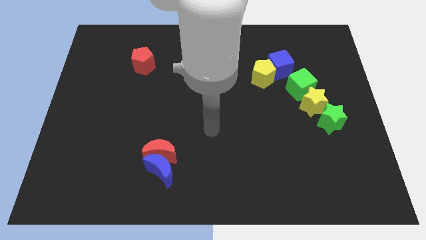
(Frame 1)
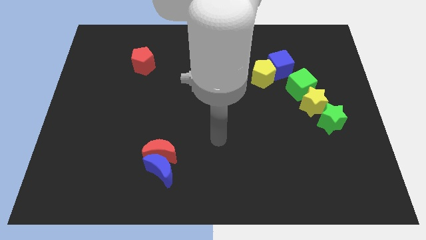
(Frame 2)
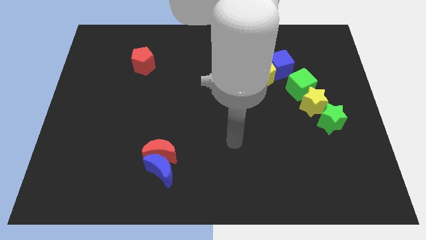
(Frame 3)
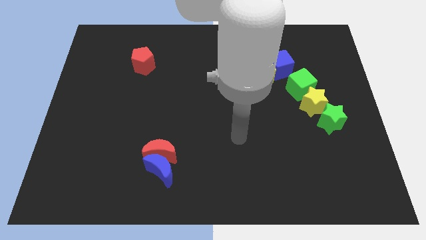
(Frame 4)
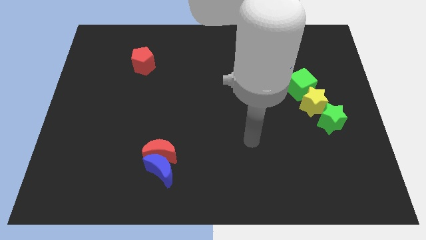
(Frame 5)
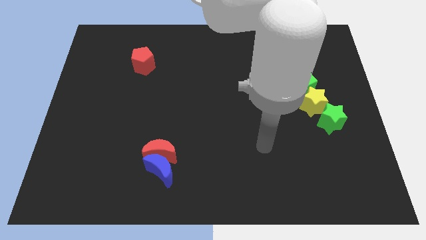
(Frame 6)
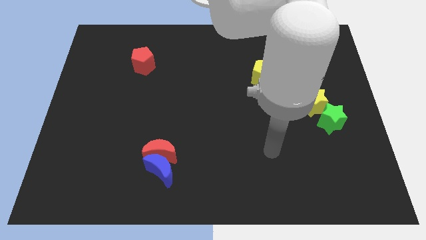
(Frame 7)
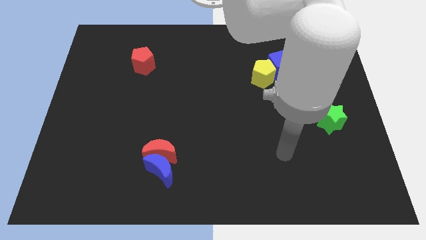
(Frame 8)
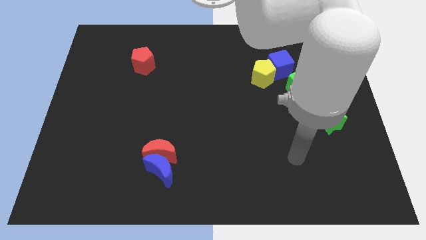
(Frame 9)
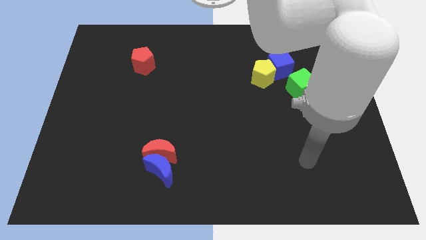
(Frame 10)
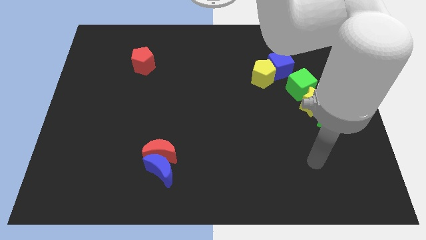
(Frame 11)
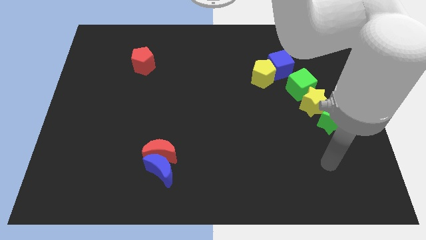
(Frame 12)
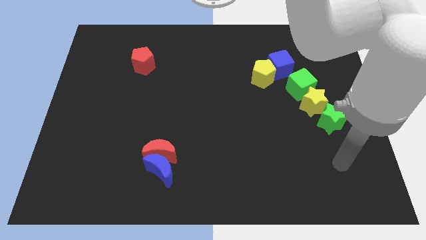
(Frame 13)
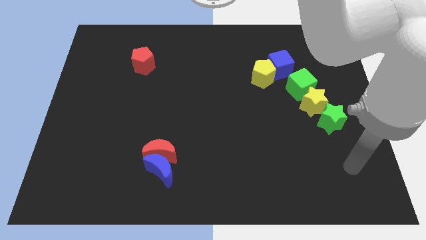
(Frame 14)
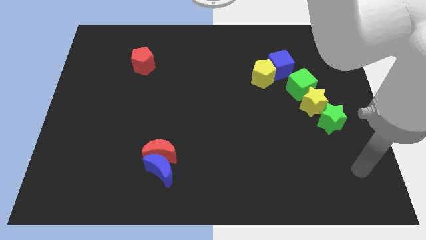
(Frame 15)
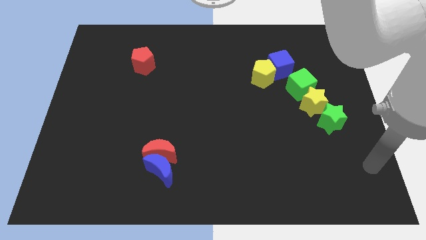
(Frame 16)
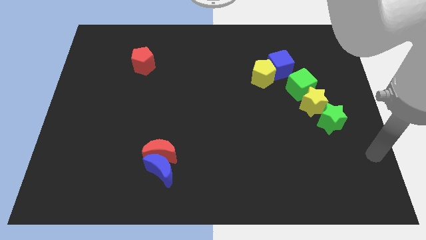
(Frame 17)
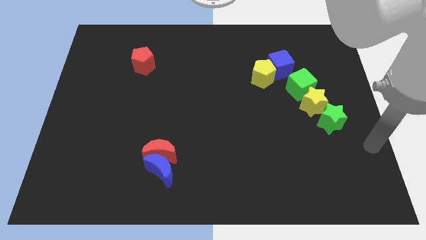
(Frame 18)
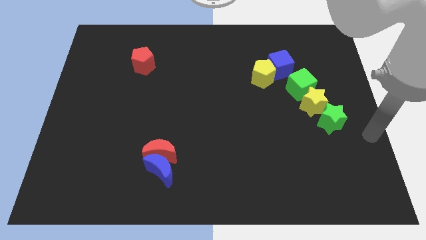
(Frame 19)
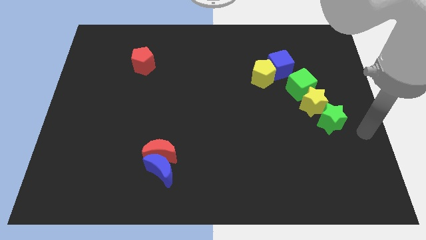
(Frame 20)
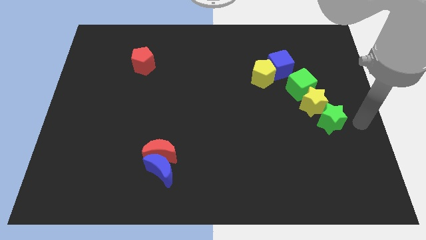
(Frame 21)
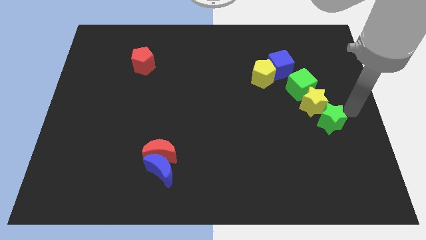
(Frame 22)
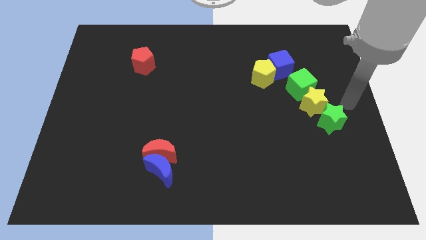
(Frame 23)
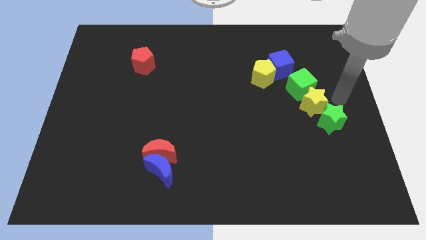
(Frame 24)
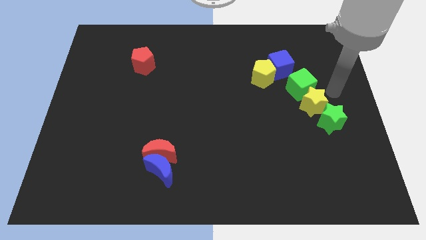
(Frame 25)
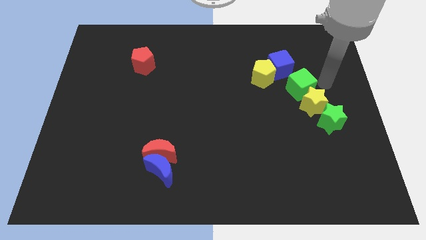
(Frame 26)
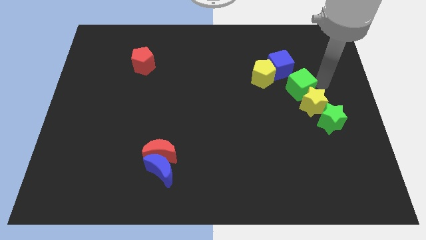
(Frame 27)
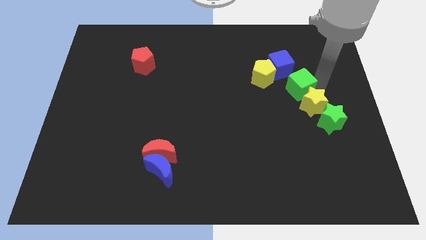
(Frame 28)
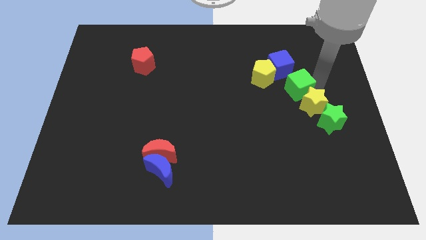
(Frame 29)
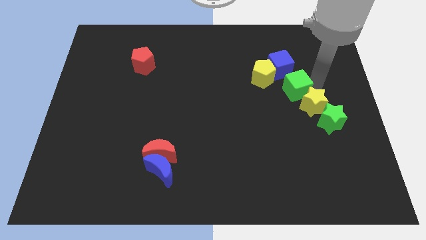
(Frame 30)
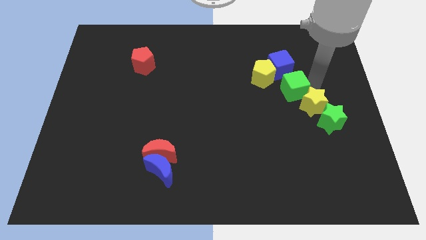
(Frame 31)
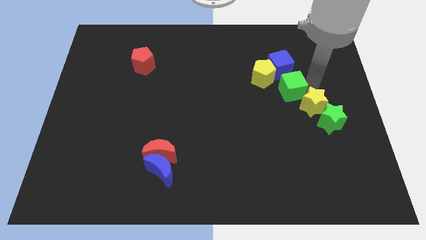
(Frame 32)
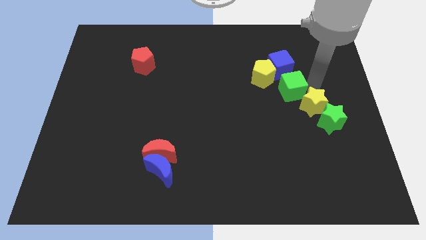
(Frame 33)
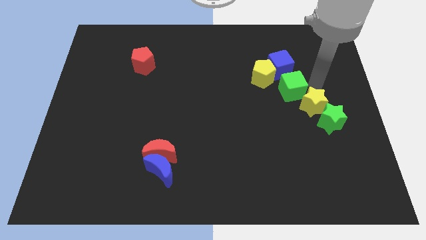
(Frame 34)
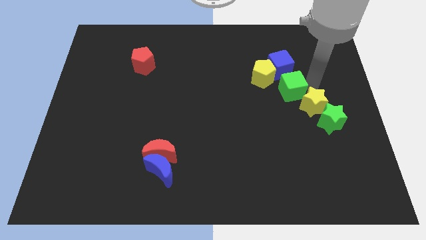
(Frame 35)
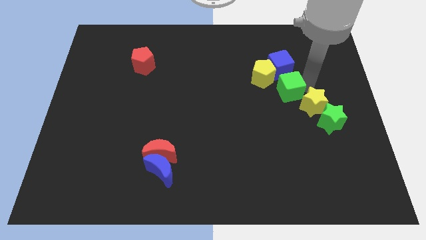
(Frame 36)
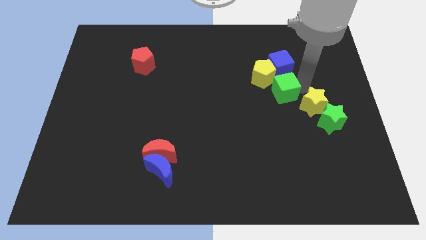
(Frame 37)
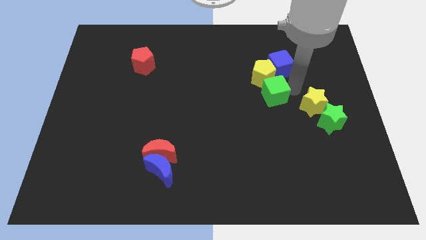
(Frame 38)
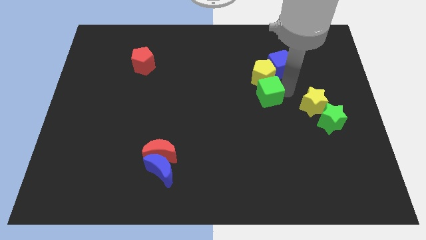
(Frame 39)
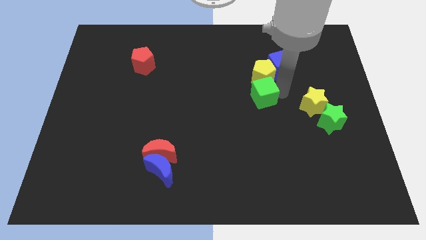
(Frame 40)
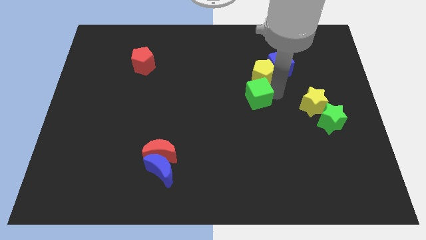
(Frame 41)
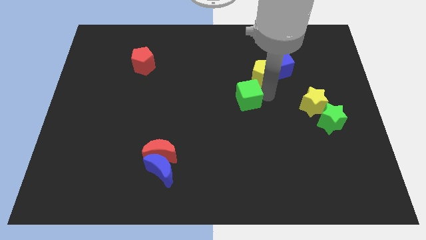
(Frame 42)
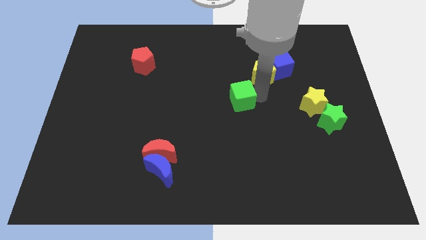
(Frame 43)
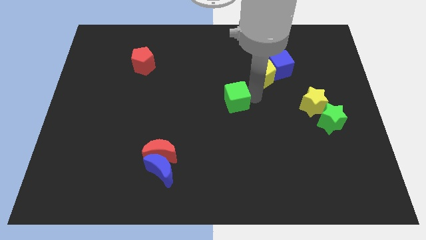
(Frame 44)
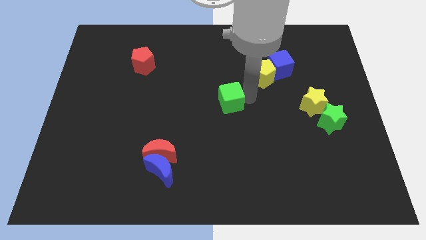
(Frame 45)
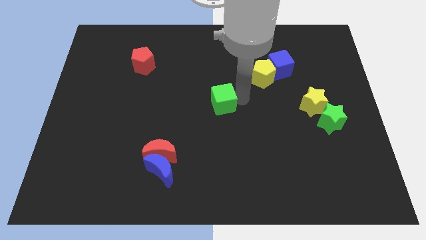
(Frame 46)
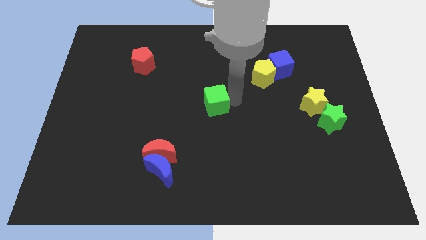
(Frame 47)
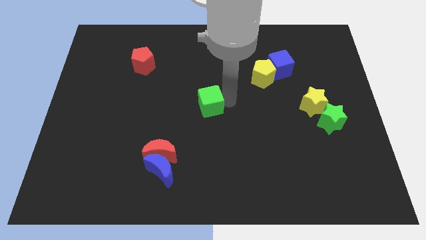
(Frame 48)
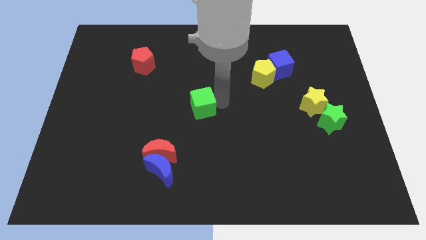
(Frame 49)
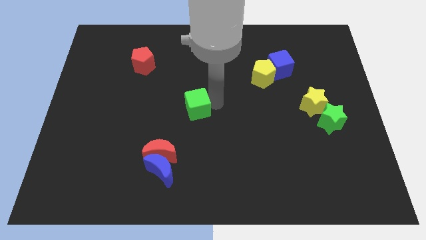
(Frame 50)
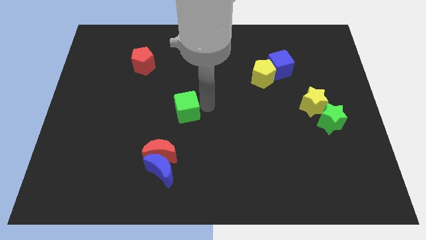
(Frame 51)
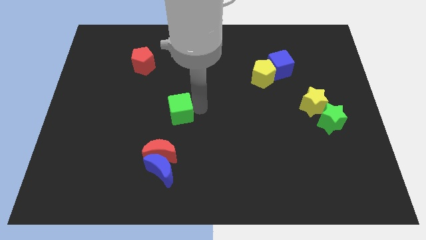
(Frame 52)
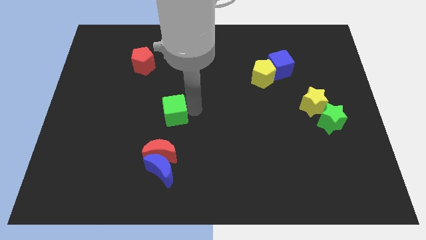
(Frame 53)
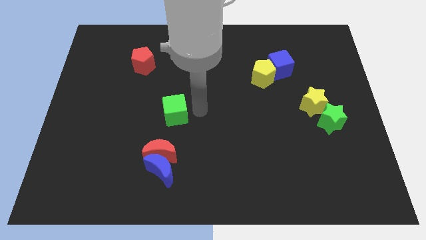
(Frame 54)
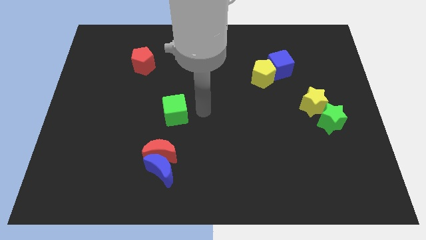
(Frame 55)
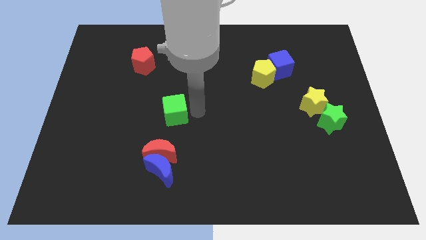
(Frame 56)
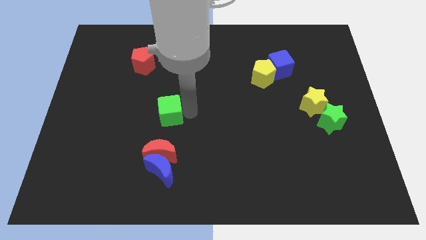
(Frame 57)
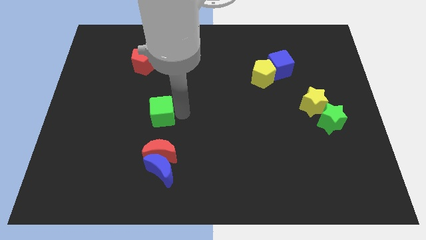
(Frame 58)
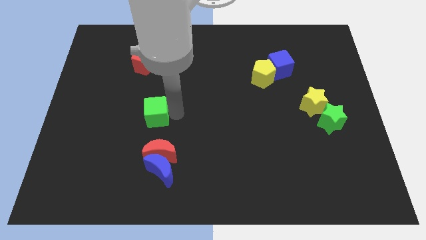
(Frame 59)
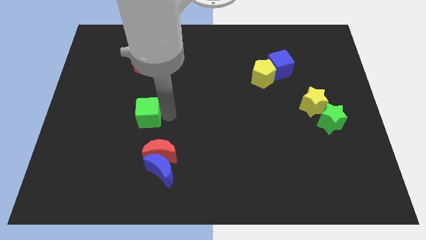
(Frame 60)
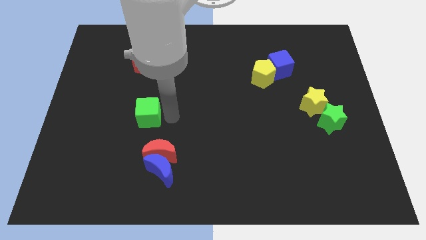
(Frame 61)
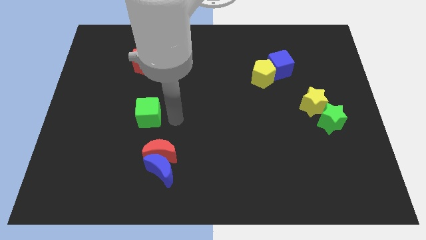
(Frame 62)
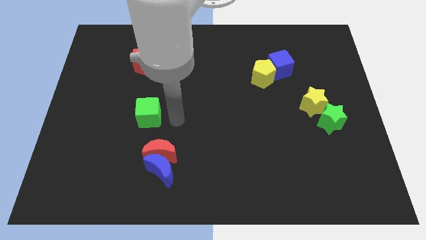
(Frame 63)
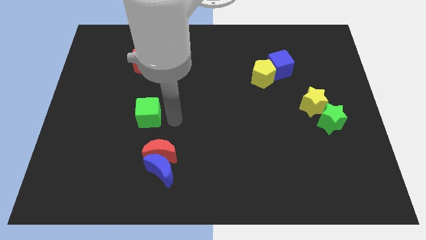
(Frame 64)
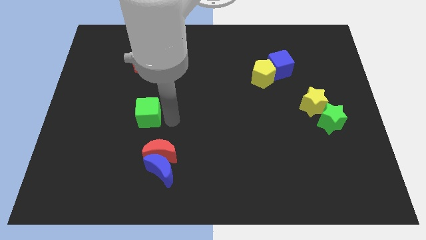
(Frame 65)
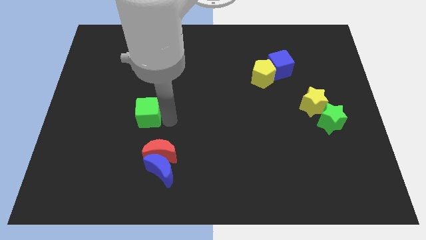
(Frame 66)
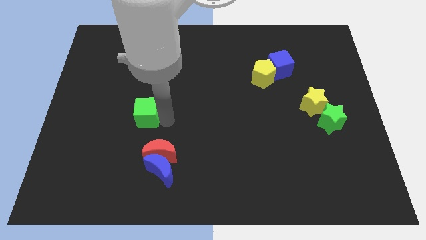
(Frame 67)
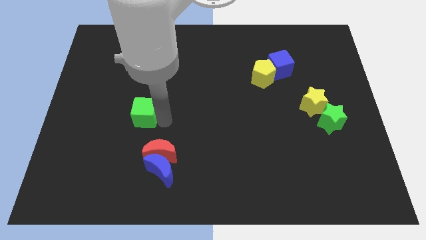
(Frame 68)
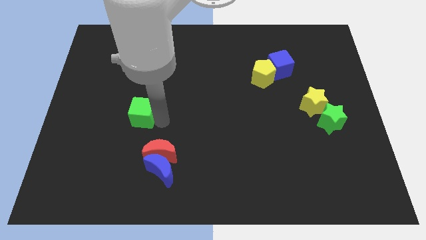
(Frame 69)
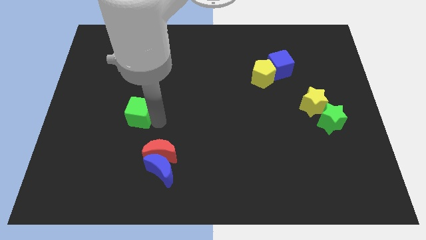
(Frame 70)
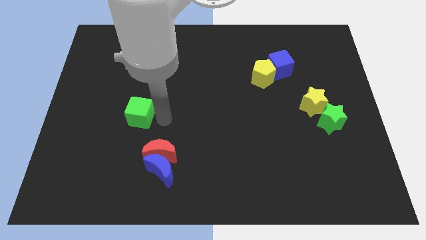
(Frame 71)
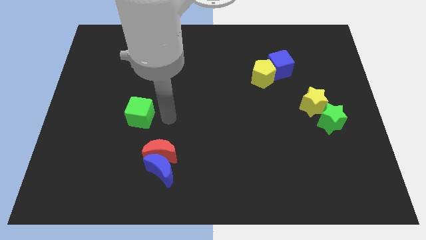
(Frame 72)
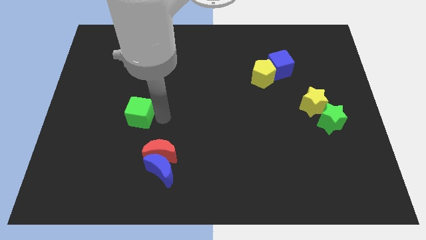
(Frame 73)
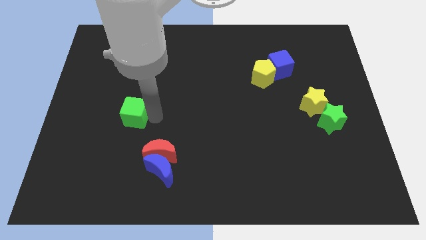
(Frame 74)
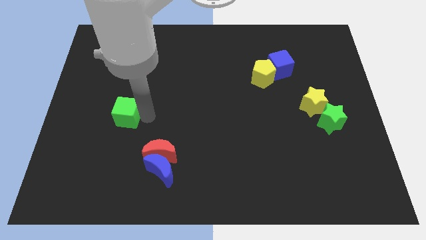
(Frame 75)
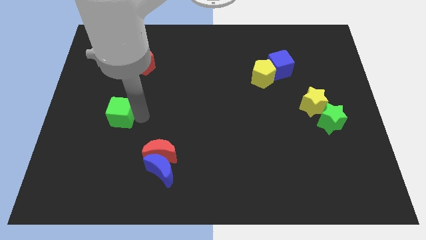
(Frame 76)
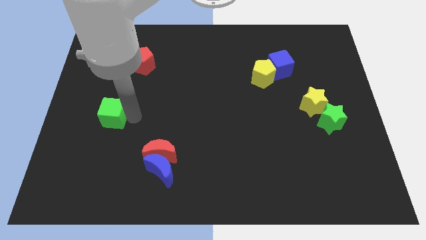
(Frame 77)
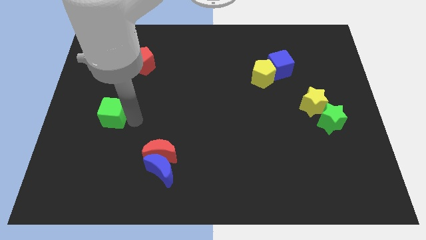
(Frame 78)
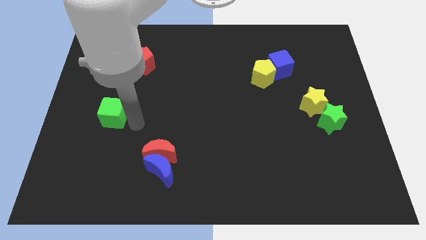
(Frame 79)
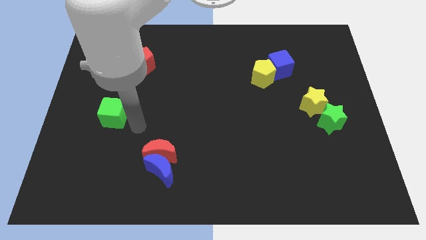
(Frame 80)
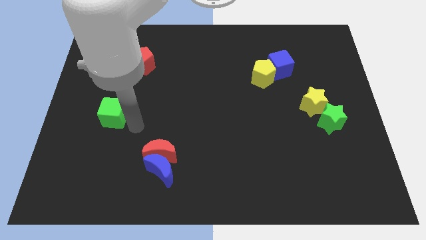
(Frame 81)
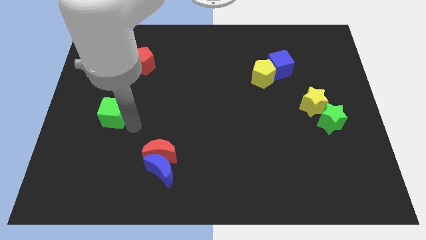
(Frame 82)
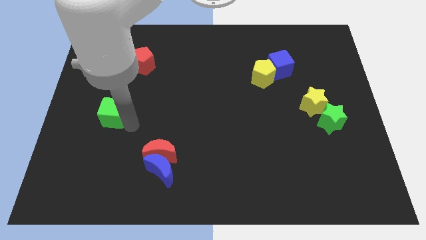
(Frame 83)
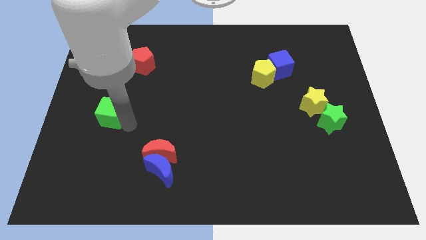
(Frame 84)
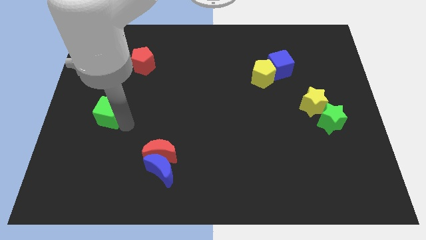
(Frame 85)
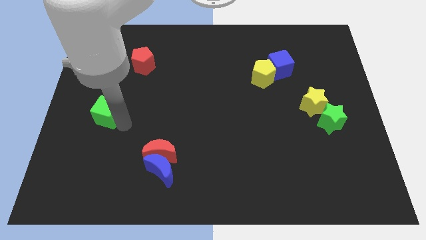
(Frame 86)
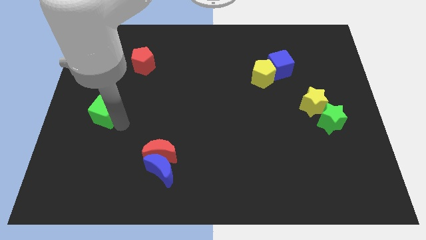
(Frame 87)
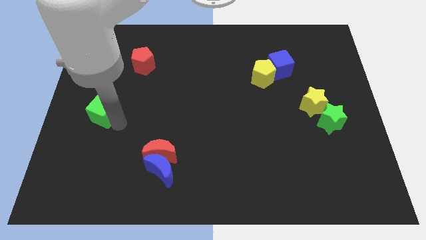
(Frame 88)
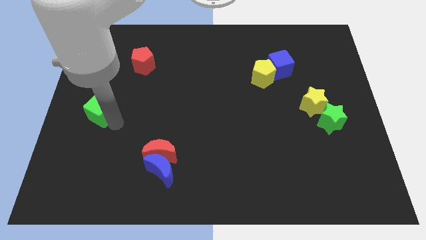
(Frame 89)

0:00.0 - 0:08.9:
slide the green cube to the left side
